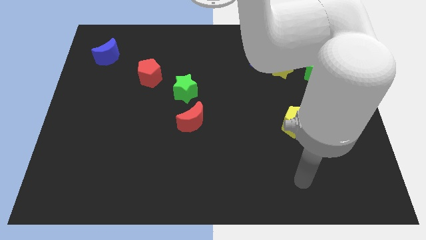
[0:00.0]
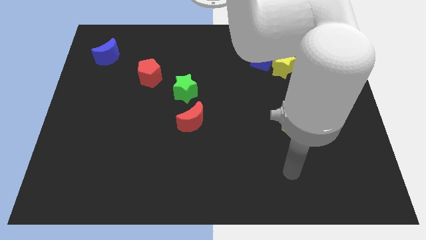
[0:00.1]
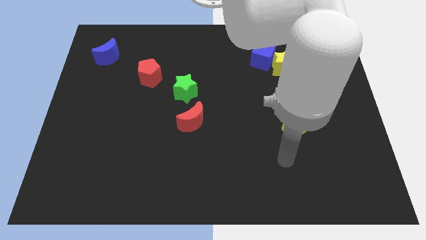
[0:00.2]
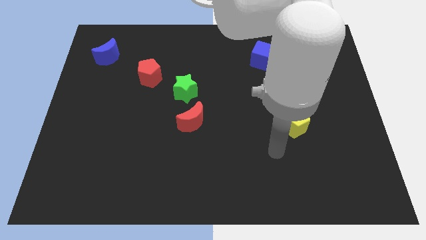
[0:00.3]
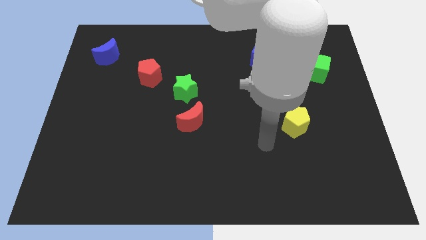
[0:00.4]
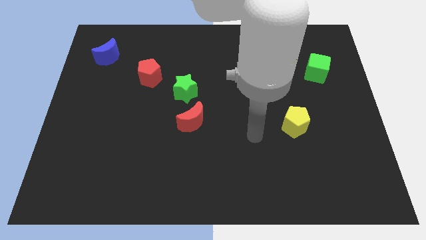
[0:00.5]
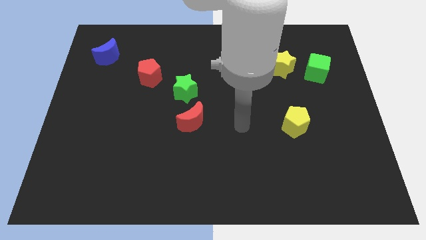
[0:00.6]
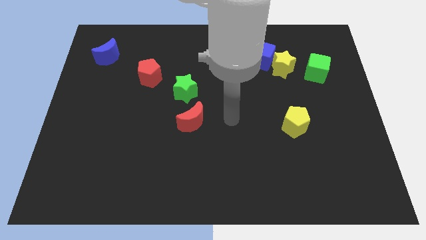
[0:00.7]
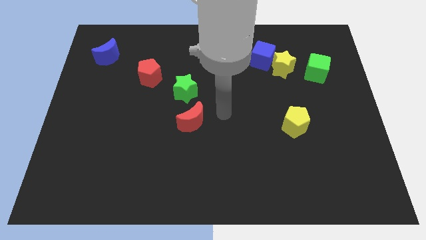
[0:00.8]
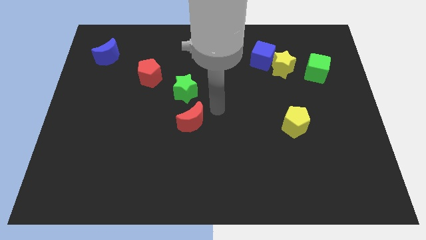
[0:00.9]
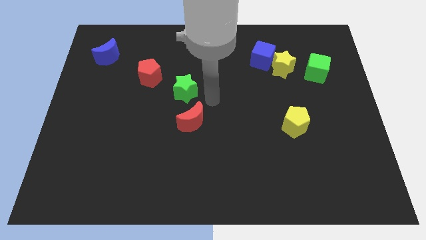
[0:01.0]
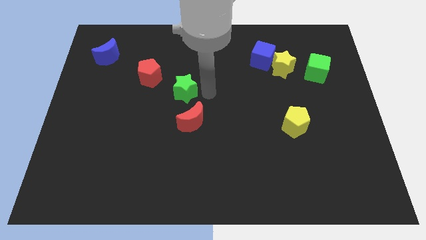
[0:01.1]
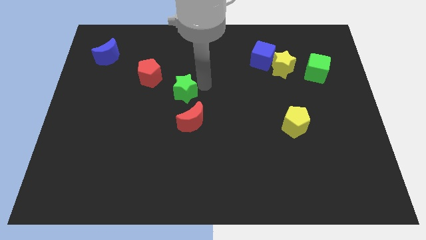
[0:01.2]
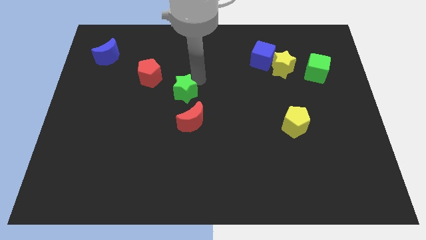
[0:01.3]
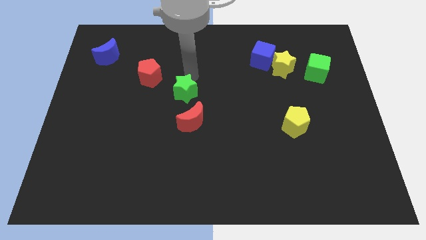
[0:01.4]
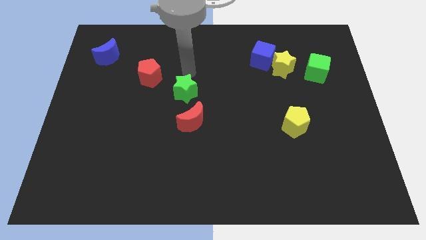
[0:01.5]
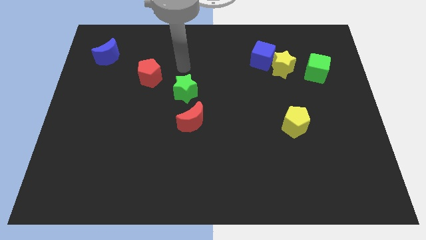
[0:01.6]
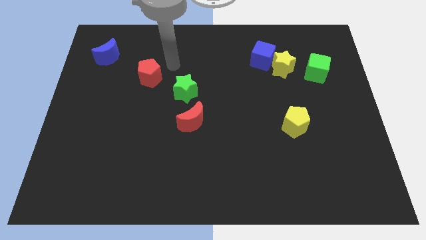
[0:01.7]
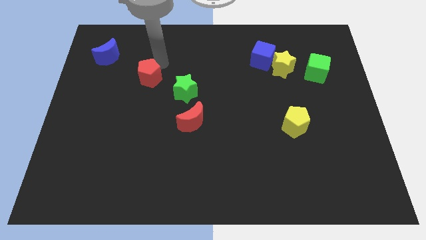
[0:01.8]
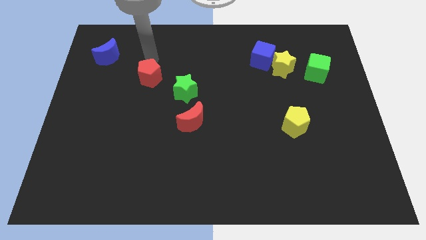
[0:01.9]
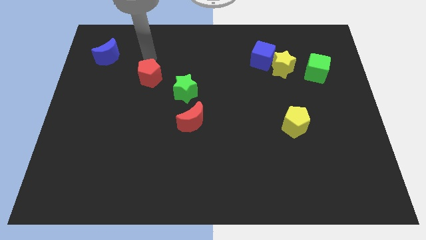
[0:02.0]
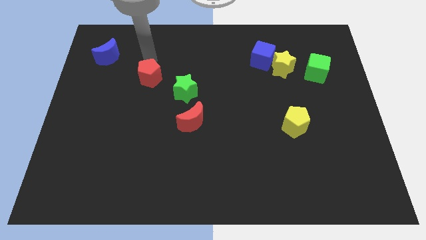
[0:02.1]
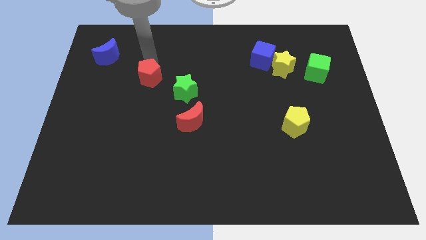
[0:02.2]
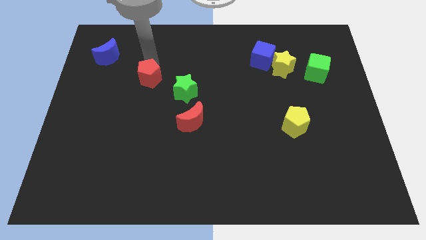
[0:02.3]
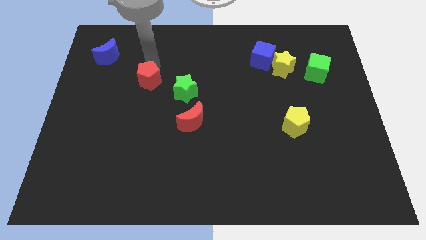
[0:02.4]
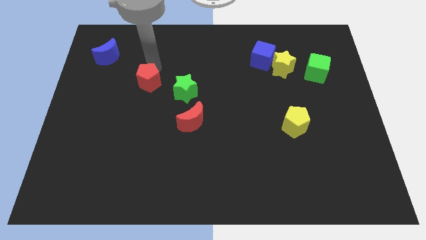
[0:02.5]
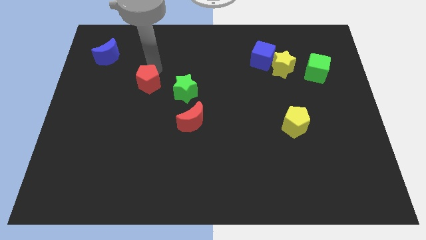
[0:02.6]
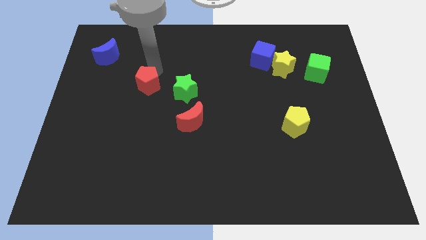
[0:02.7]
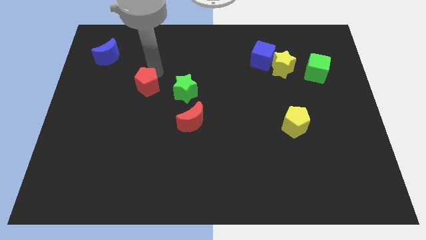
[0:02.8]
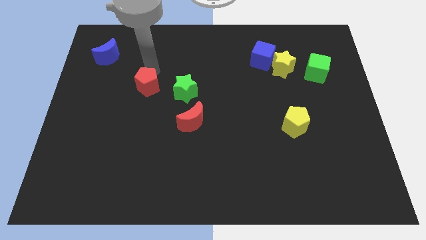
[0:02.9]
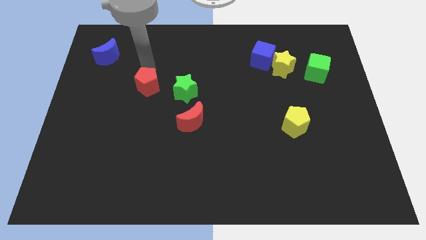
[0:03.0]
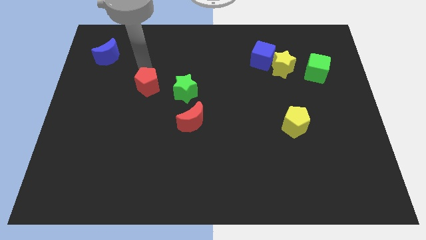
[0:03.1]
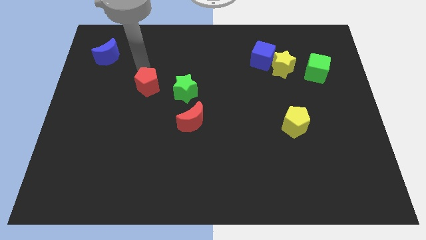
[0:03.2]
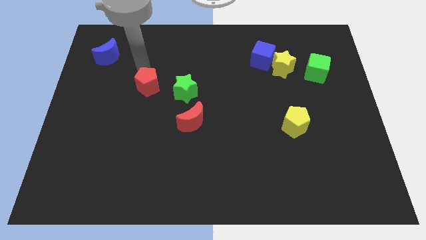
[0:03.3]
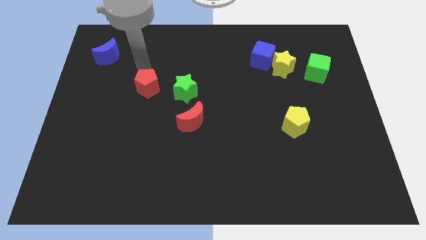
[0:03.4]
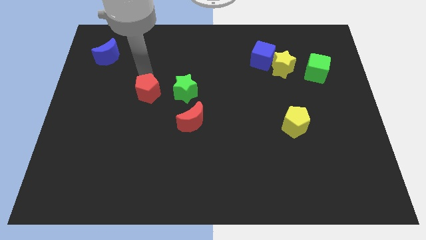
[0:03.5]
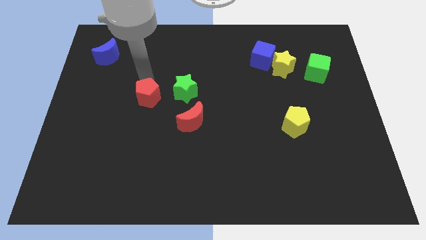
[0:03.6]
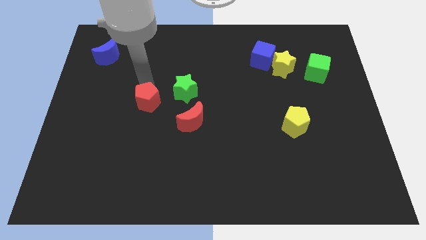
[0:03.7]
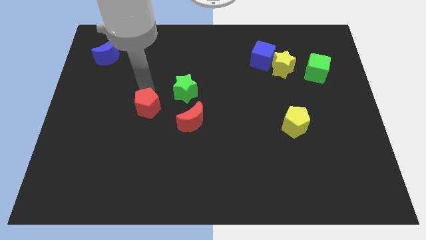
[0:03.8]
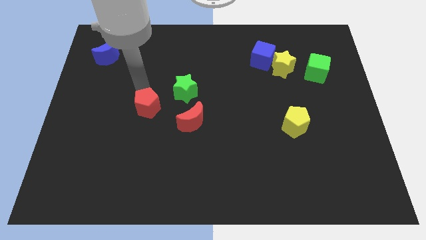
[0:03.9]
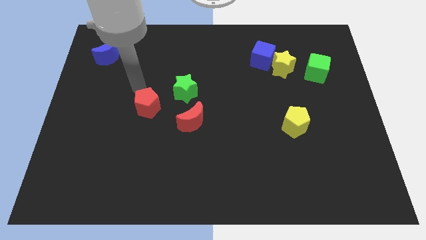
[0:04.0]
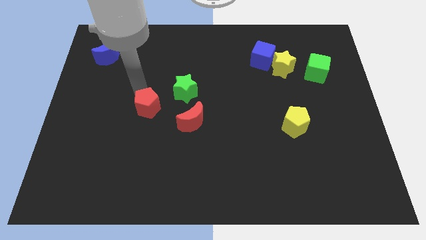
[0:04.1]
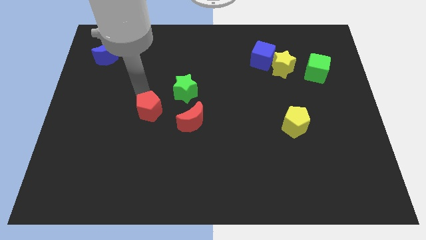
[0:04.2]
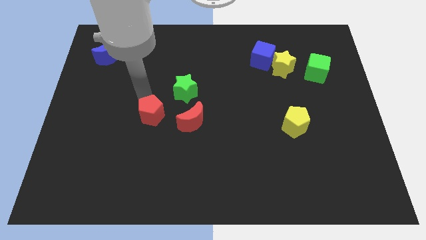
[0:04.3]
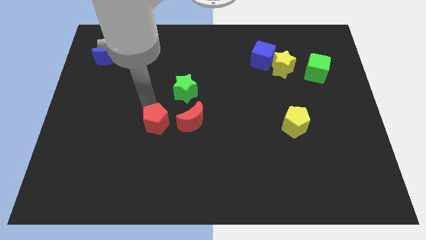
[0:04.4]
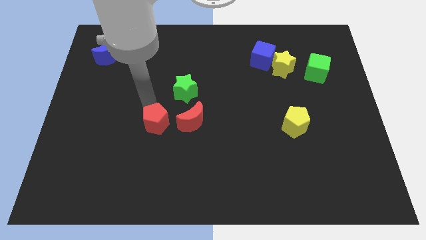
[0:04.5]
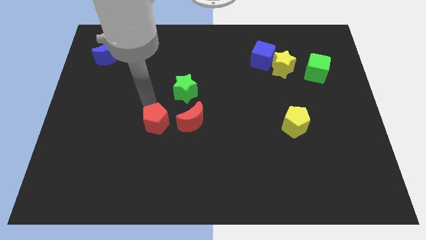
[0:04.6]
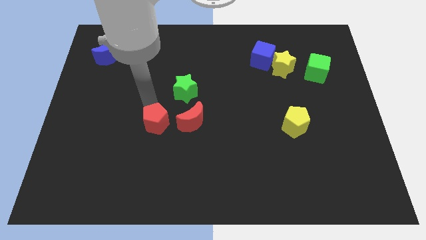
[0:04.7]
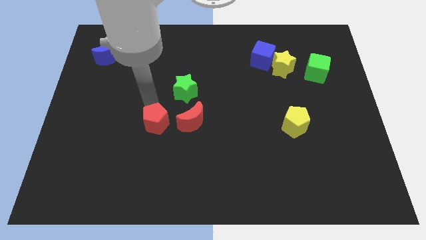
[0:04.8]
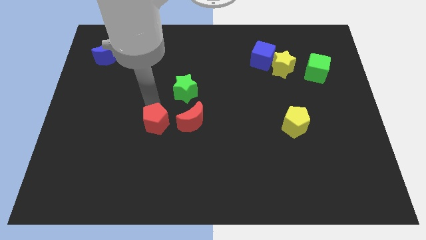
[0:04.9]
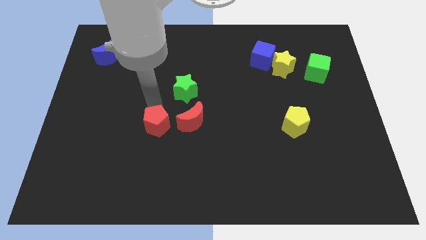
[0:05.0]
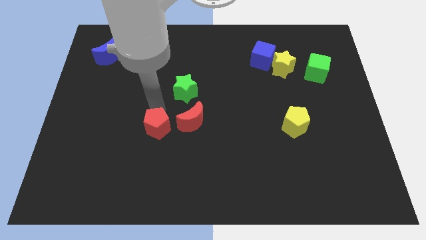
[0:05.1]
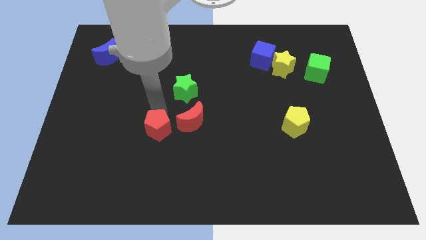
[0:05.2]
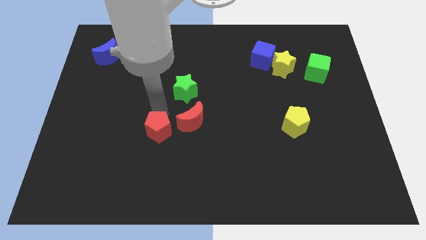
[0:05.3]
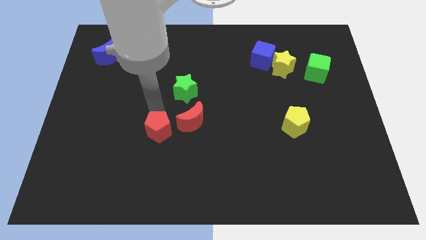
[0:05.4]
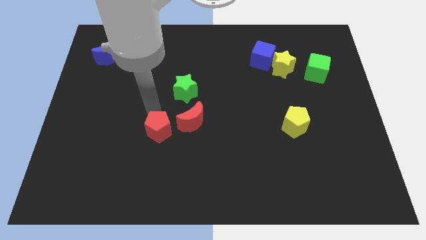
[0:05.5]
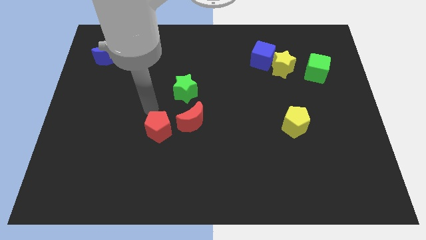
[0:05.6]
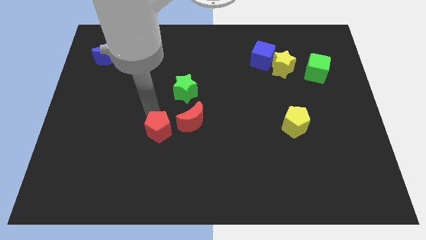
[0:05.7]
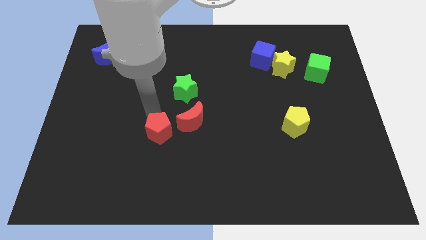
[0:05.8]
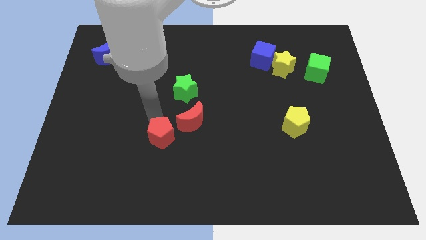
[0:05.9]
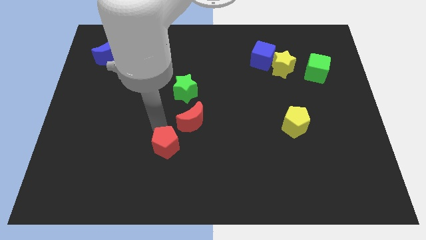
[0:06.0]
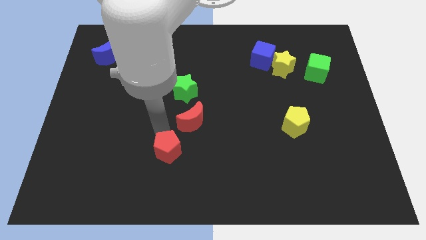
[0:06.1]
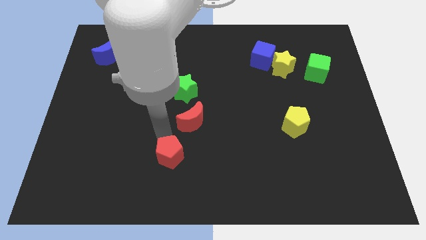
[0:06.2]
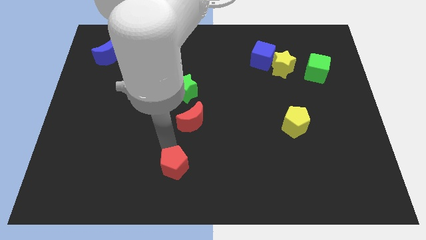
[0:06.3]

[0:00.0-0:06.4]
put the red pentagon to the bottom side

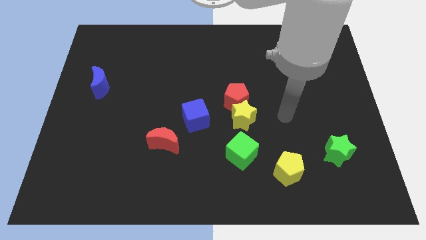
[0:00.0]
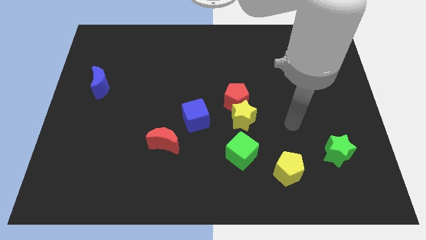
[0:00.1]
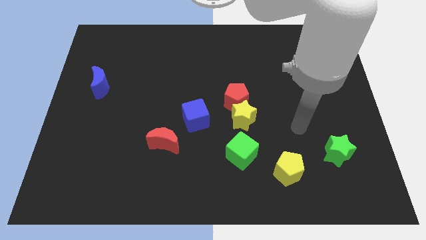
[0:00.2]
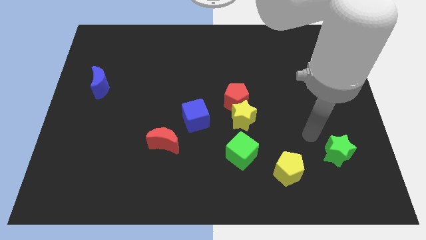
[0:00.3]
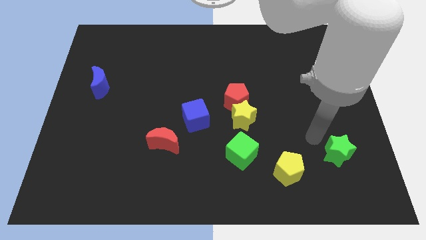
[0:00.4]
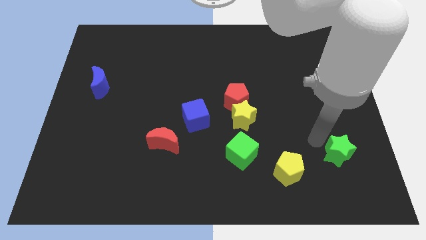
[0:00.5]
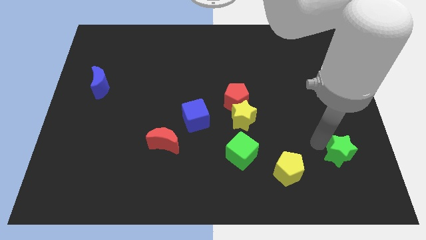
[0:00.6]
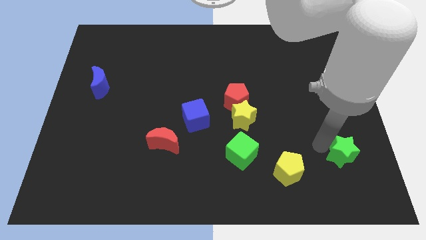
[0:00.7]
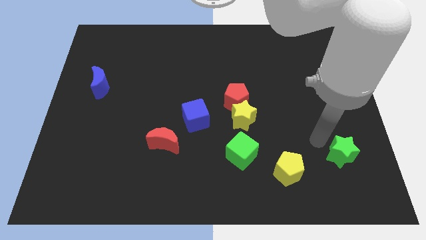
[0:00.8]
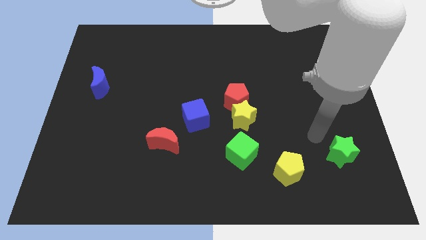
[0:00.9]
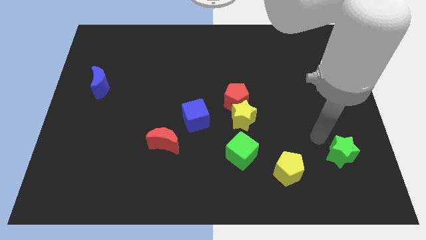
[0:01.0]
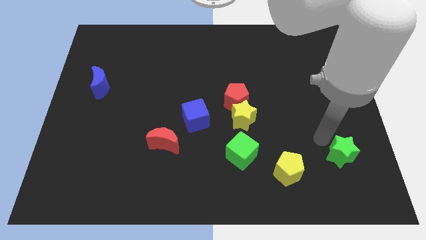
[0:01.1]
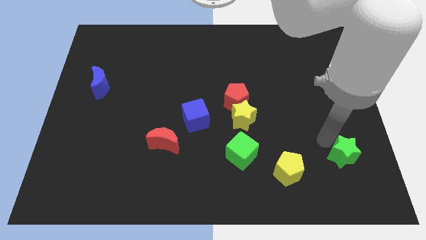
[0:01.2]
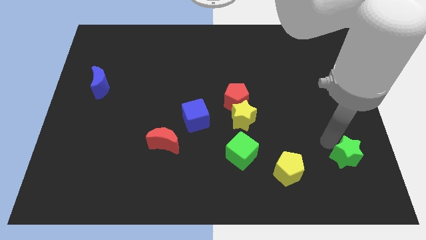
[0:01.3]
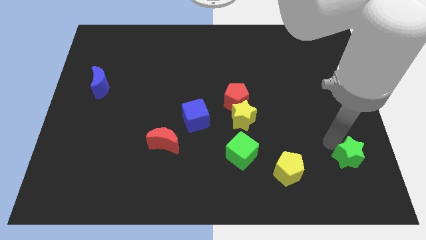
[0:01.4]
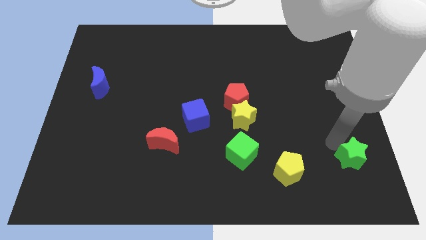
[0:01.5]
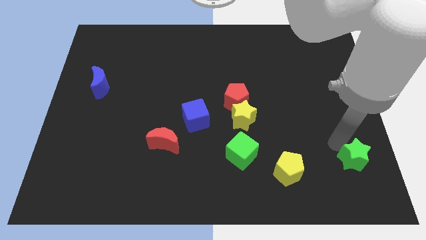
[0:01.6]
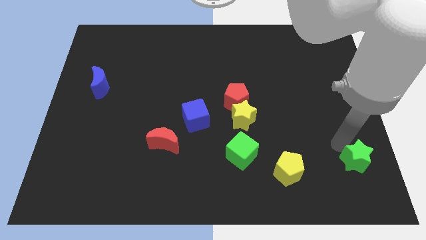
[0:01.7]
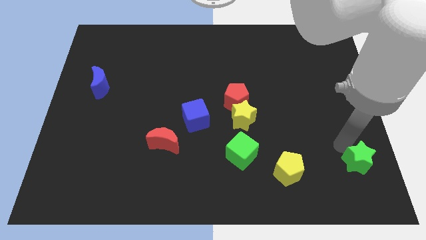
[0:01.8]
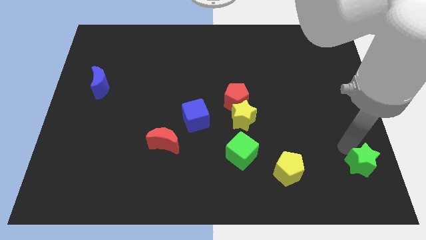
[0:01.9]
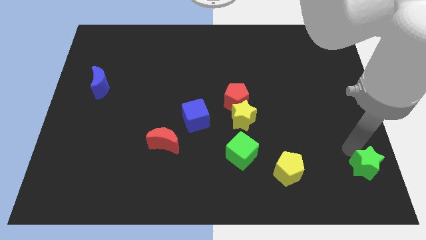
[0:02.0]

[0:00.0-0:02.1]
move the green star to the bottom right corner
